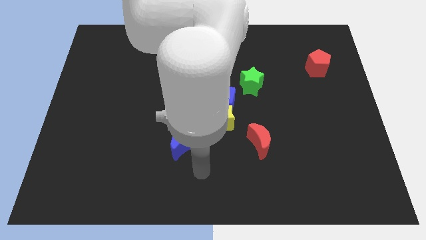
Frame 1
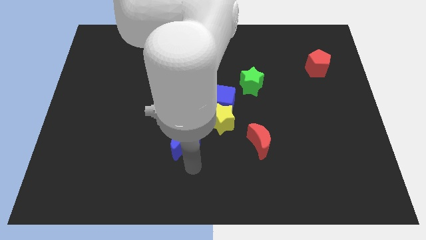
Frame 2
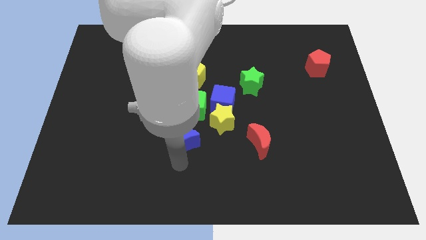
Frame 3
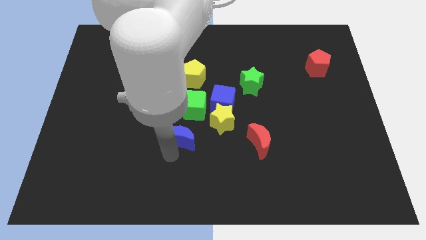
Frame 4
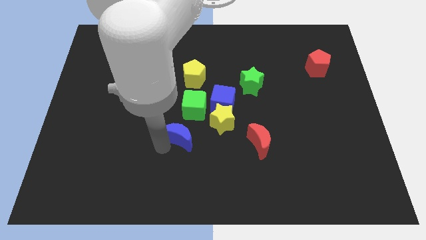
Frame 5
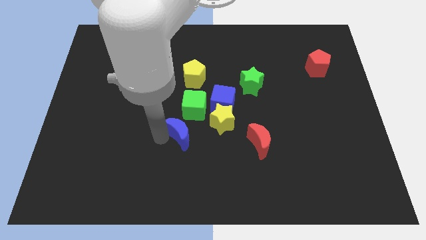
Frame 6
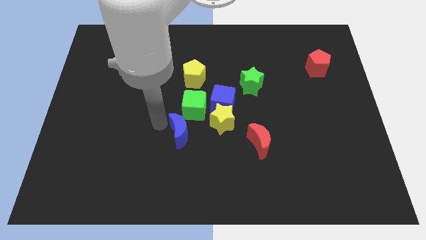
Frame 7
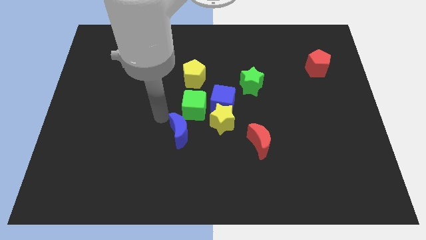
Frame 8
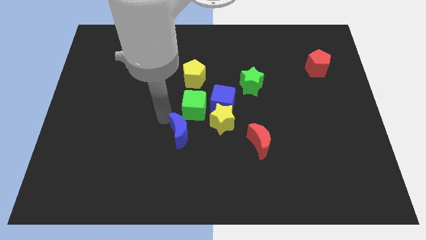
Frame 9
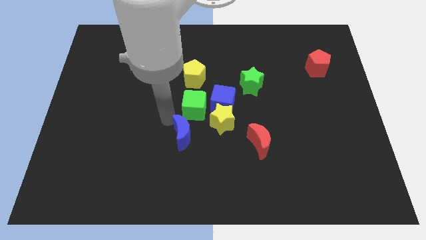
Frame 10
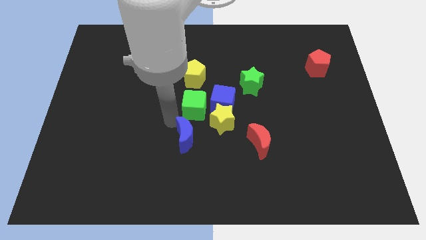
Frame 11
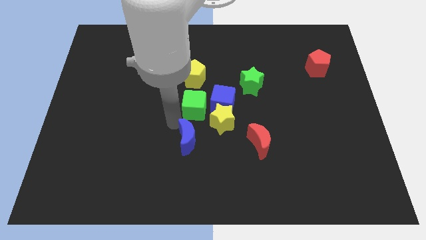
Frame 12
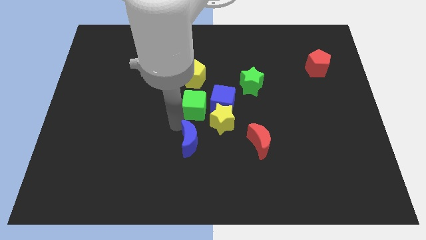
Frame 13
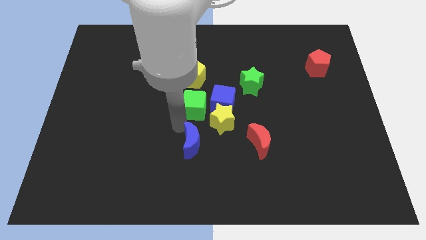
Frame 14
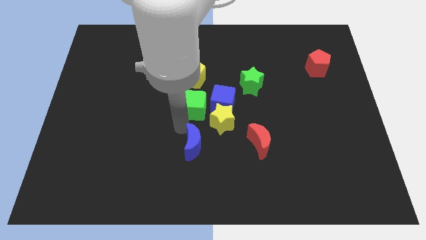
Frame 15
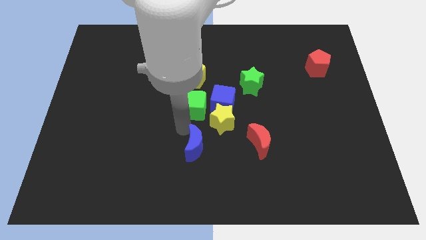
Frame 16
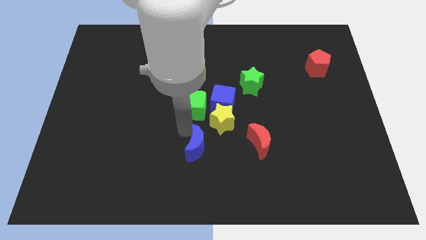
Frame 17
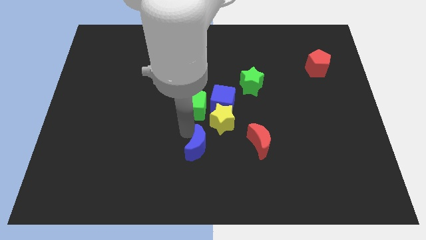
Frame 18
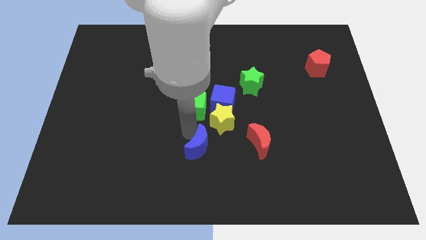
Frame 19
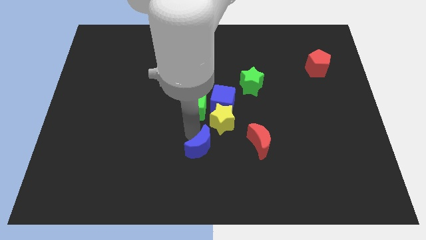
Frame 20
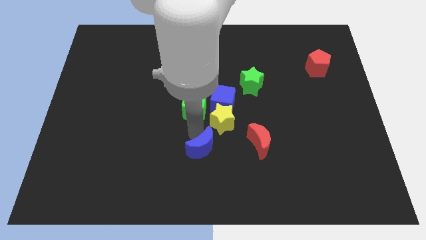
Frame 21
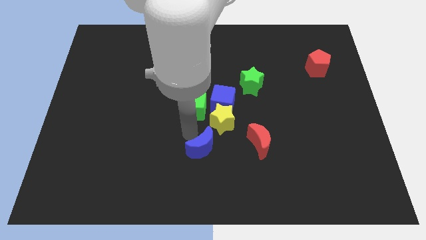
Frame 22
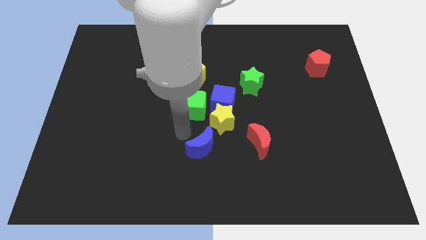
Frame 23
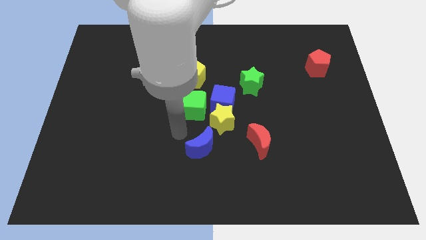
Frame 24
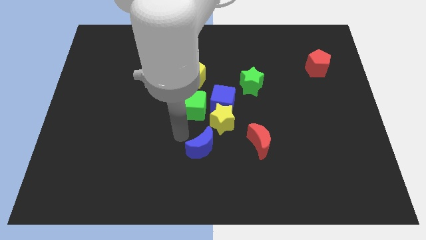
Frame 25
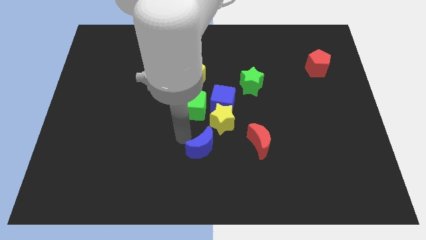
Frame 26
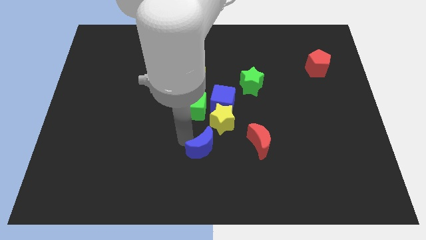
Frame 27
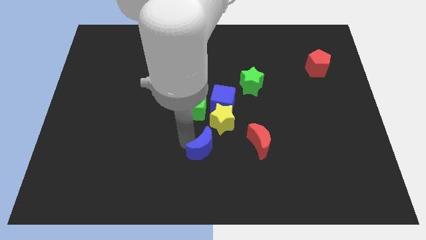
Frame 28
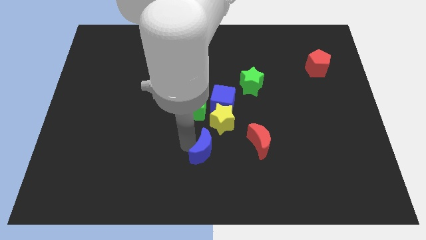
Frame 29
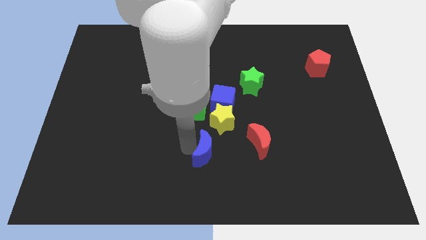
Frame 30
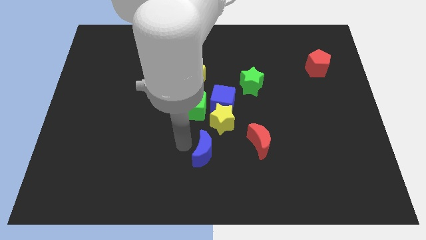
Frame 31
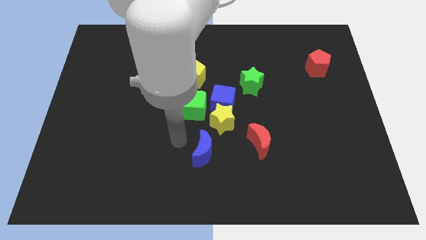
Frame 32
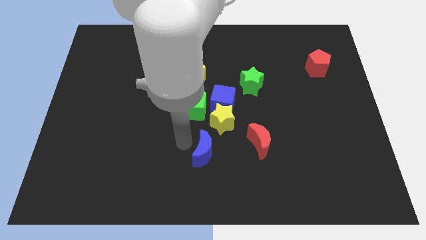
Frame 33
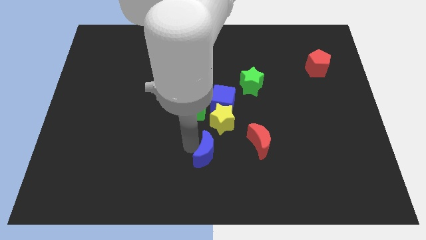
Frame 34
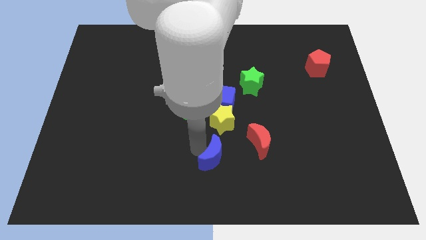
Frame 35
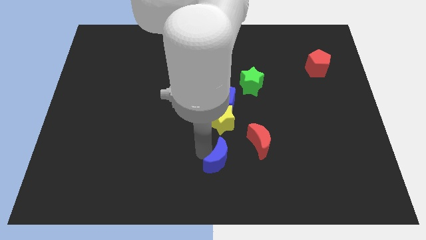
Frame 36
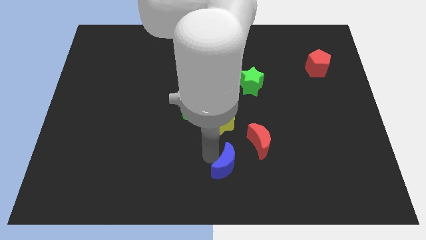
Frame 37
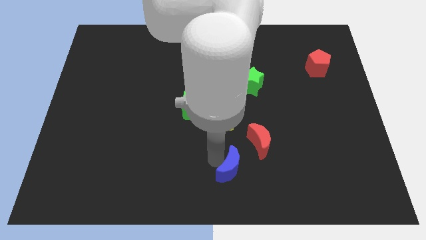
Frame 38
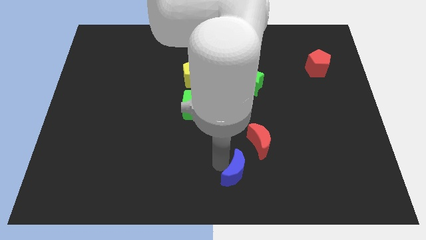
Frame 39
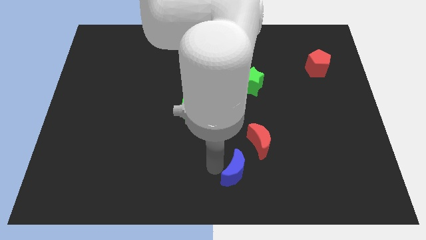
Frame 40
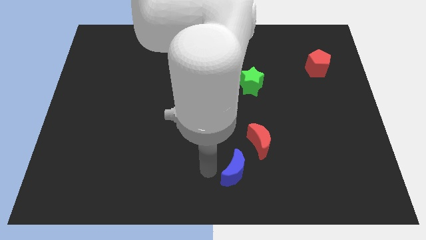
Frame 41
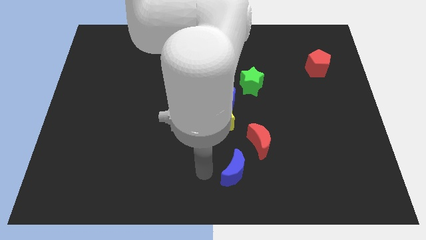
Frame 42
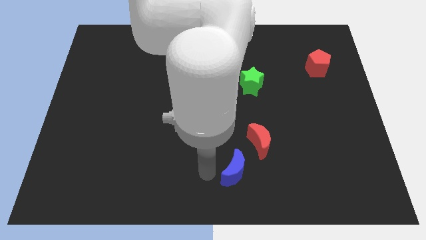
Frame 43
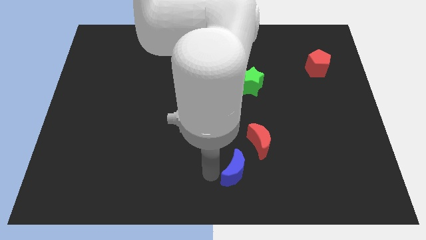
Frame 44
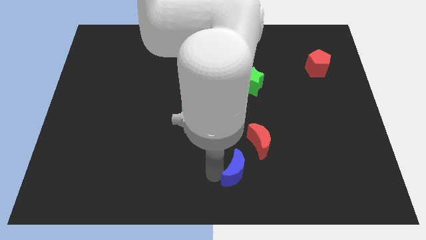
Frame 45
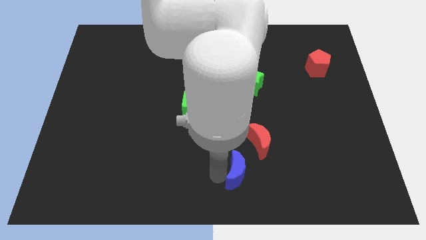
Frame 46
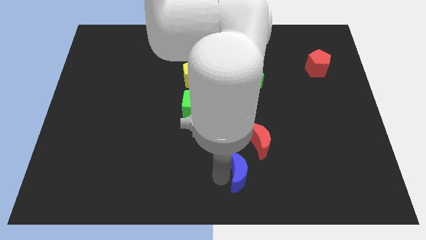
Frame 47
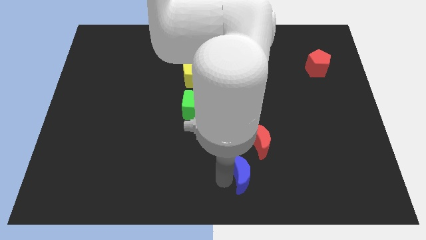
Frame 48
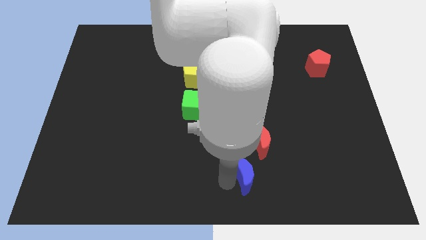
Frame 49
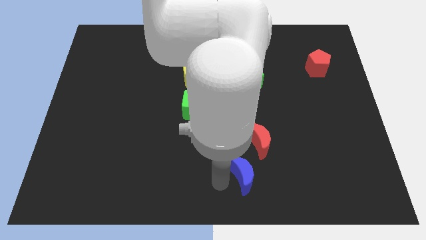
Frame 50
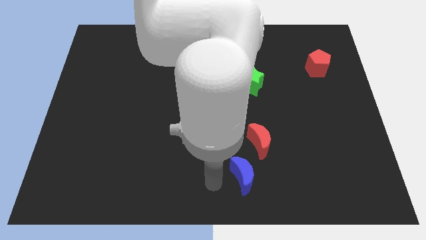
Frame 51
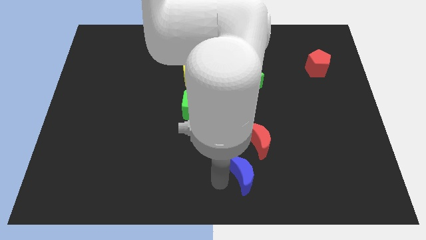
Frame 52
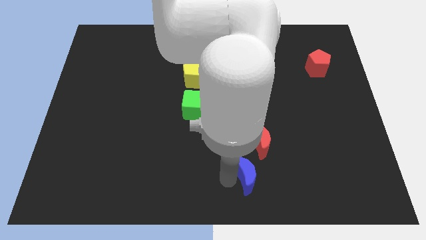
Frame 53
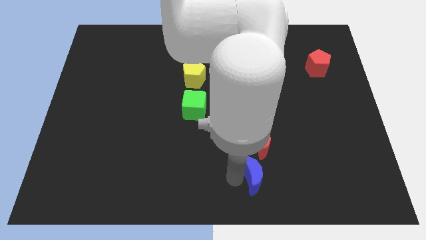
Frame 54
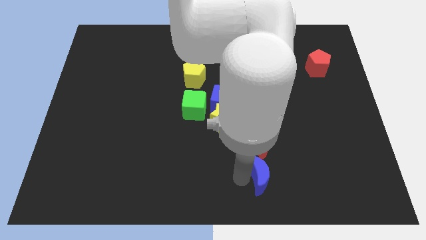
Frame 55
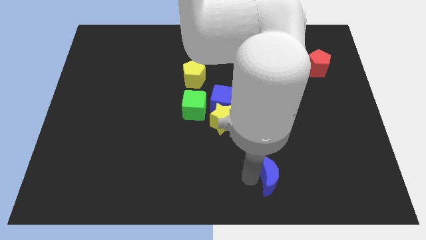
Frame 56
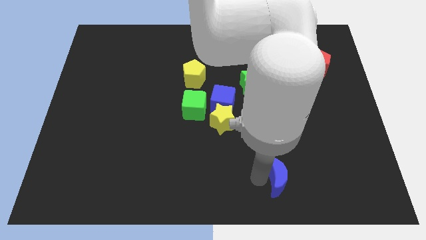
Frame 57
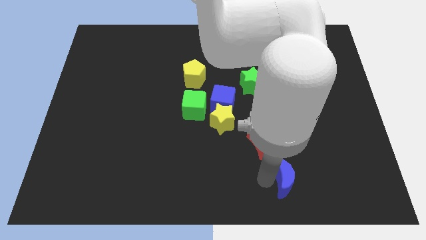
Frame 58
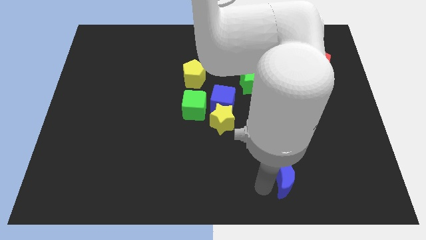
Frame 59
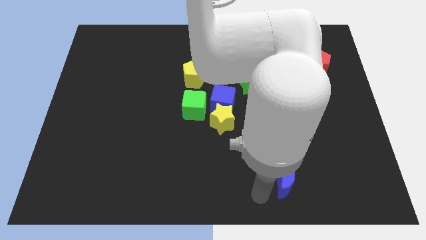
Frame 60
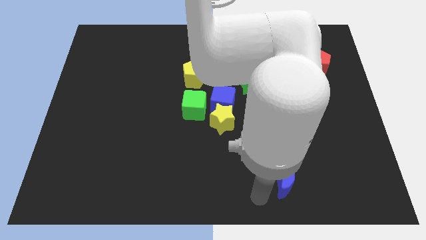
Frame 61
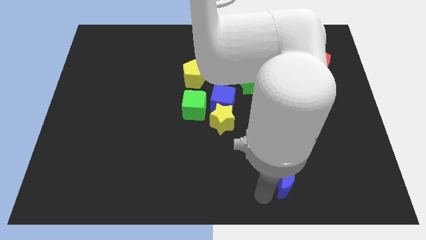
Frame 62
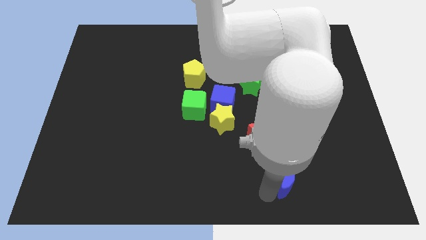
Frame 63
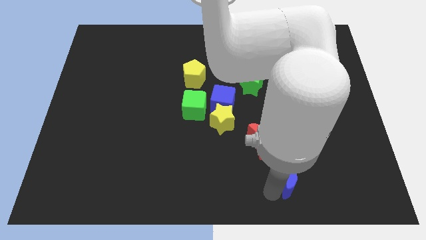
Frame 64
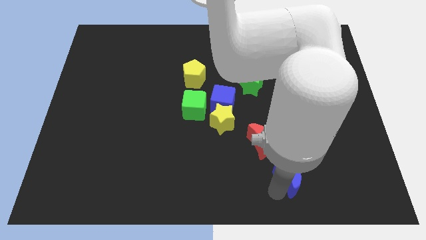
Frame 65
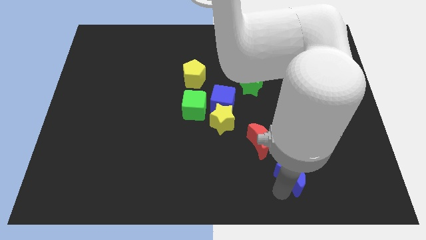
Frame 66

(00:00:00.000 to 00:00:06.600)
slide the blue moon right

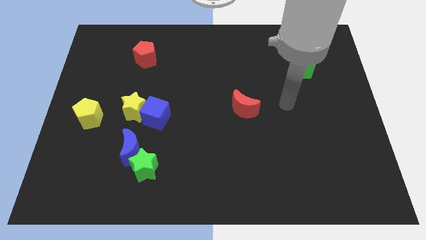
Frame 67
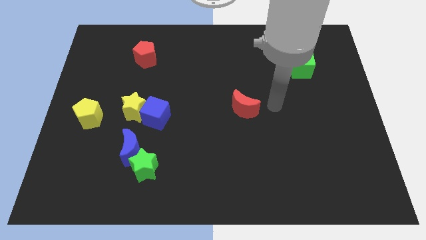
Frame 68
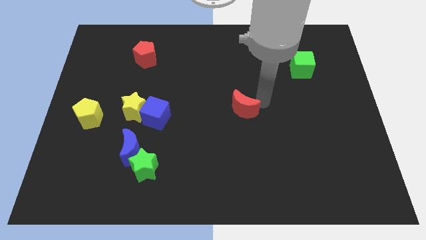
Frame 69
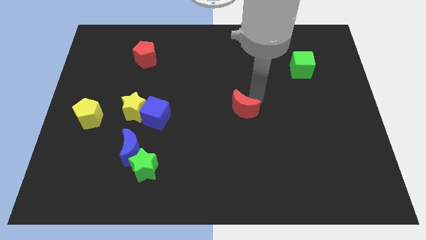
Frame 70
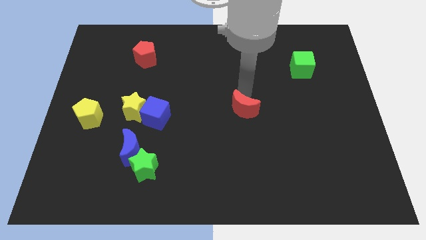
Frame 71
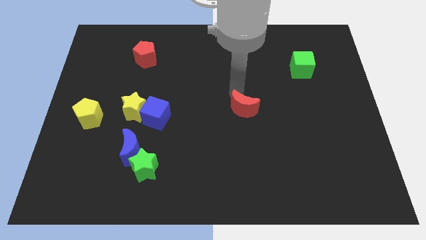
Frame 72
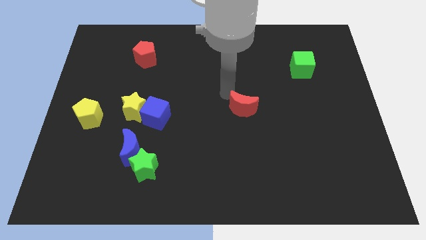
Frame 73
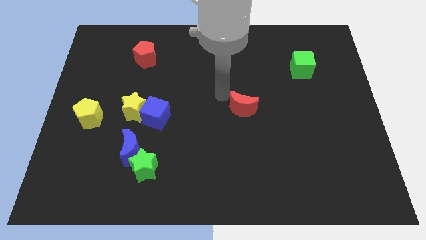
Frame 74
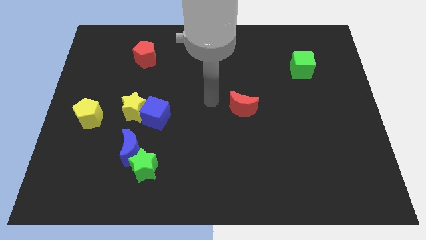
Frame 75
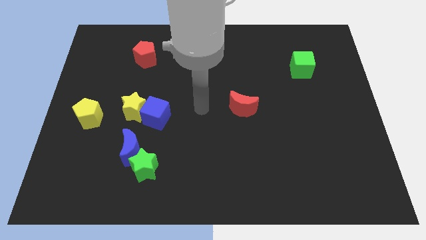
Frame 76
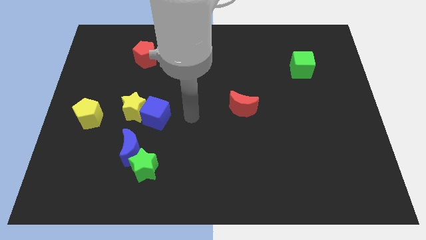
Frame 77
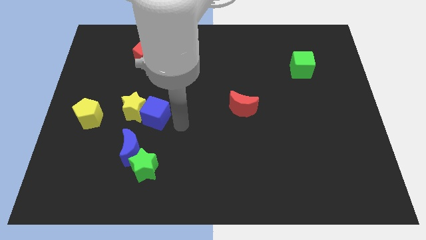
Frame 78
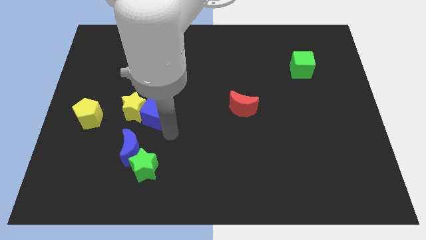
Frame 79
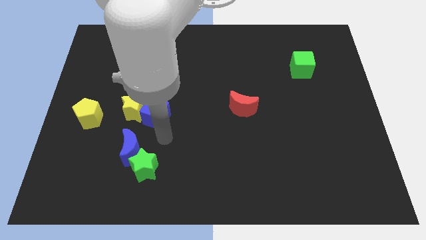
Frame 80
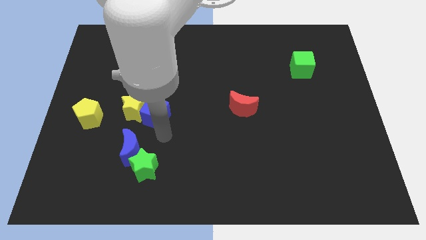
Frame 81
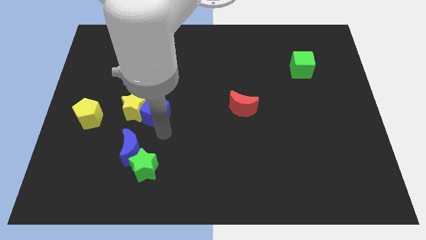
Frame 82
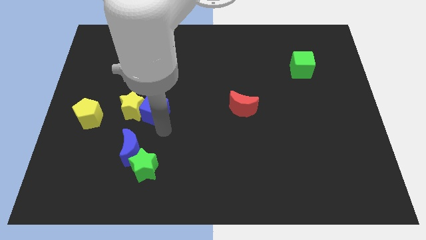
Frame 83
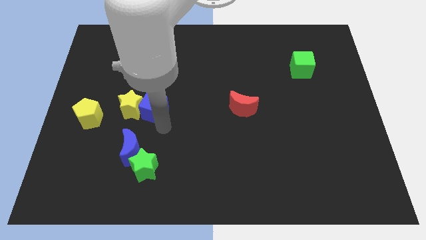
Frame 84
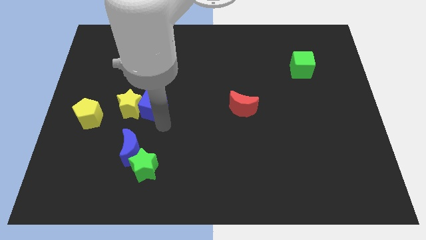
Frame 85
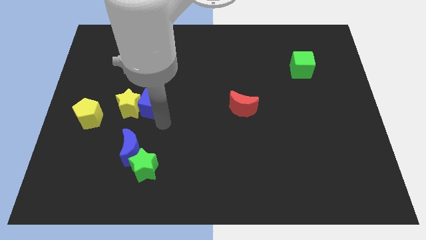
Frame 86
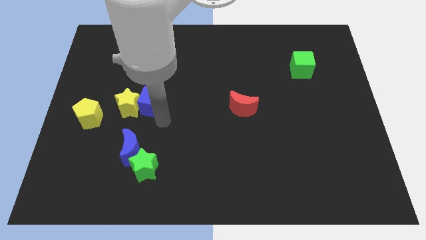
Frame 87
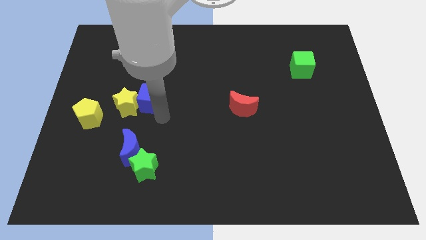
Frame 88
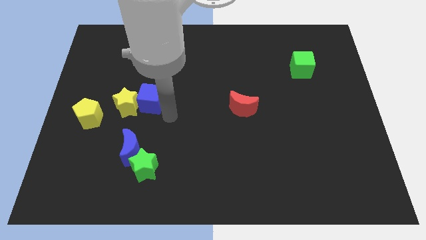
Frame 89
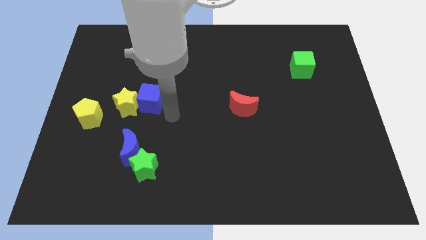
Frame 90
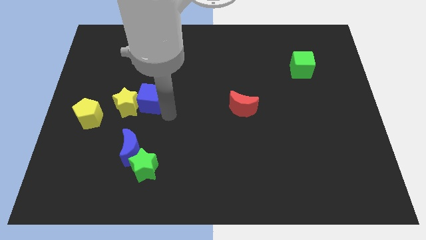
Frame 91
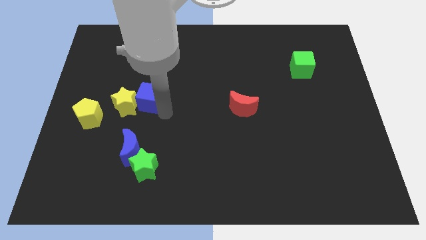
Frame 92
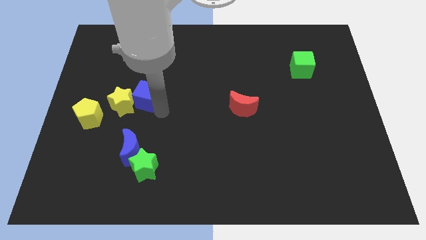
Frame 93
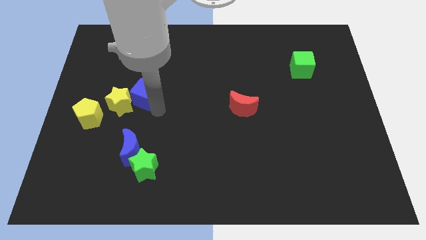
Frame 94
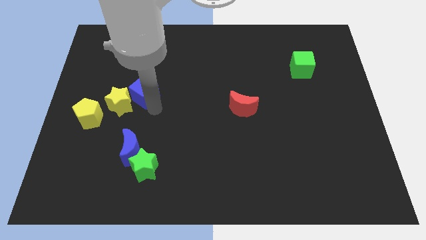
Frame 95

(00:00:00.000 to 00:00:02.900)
slide the blue cube a bit up and left diagonally
